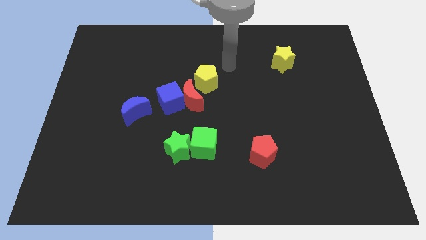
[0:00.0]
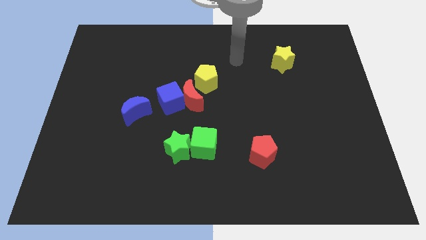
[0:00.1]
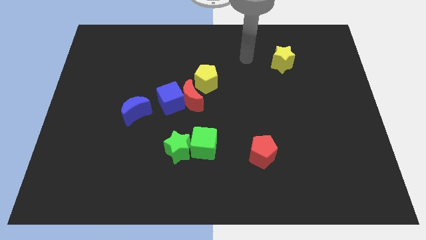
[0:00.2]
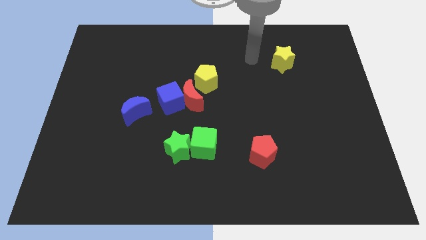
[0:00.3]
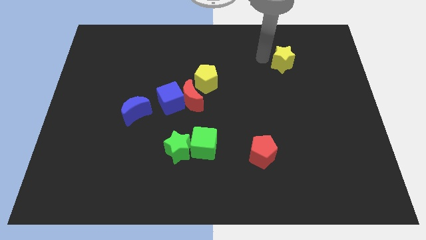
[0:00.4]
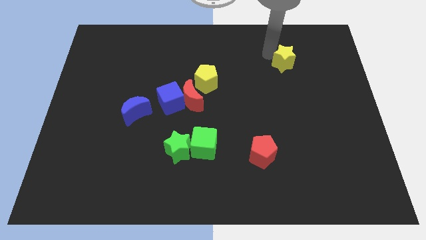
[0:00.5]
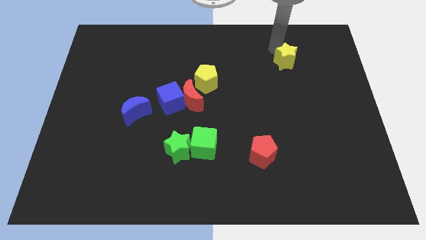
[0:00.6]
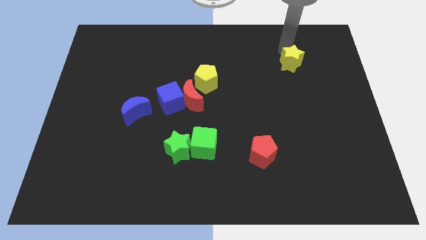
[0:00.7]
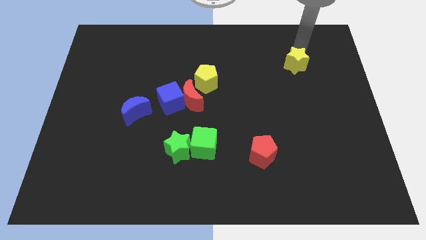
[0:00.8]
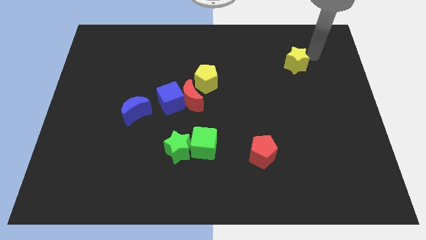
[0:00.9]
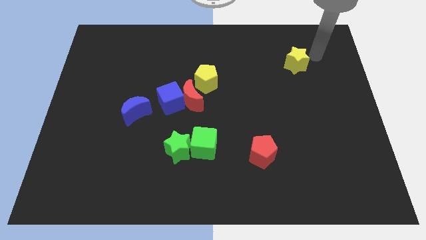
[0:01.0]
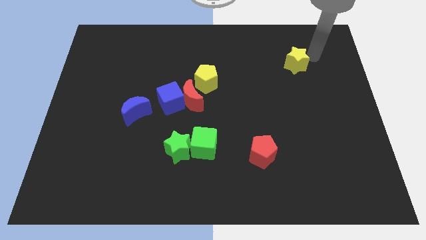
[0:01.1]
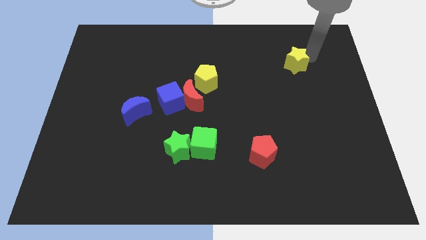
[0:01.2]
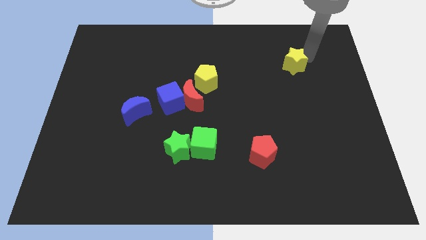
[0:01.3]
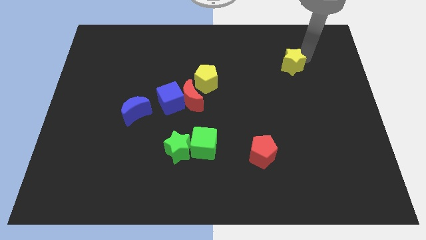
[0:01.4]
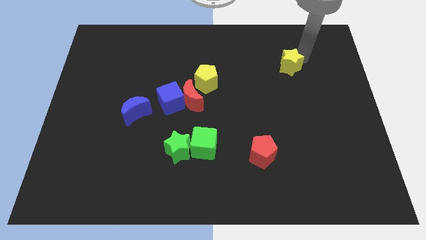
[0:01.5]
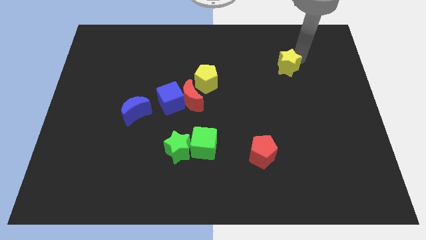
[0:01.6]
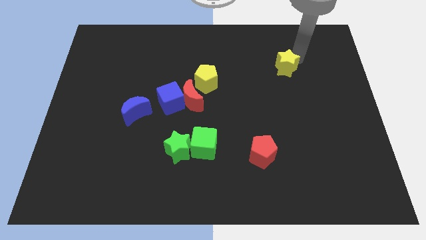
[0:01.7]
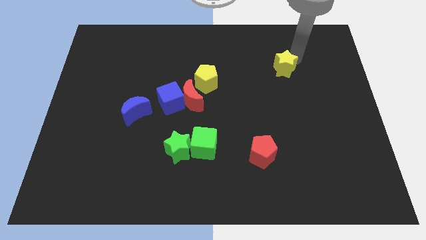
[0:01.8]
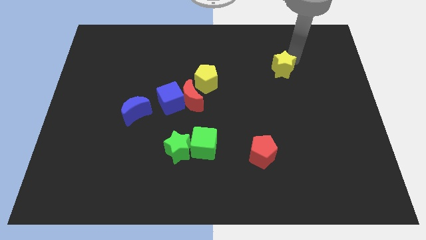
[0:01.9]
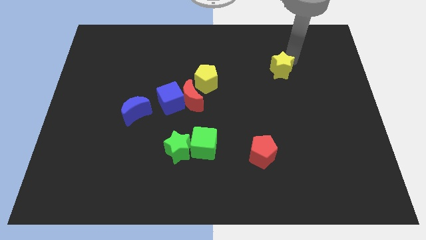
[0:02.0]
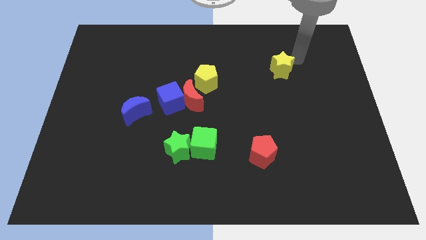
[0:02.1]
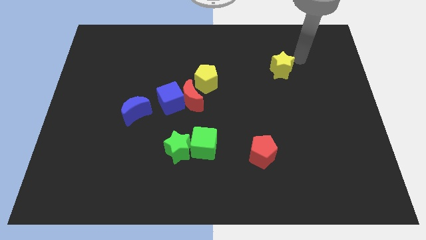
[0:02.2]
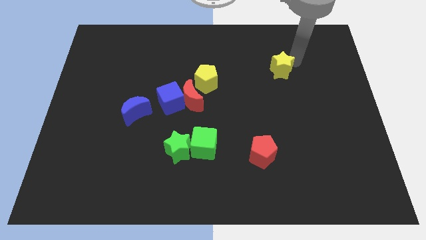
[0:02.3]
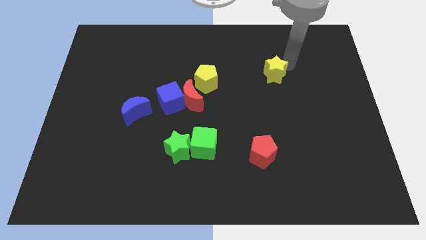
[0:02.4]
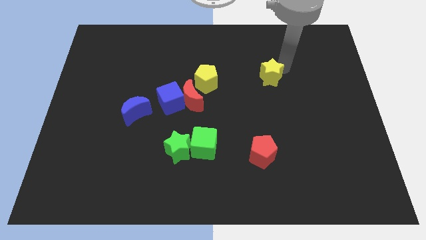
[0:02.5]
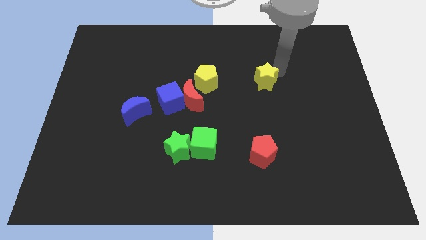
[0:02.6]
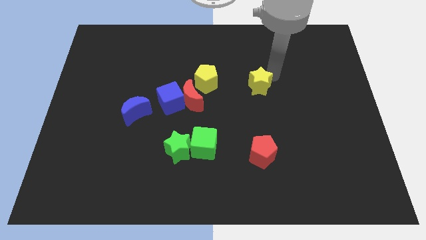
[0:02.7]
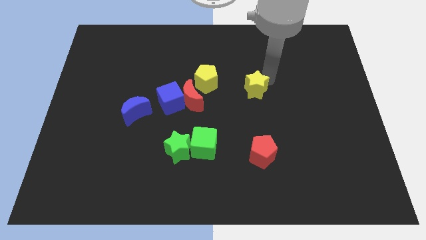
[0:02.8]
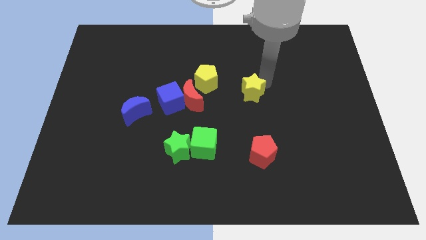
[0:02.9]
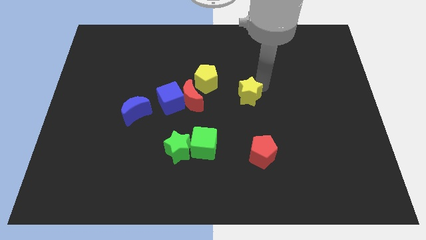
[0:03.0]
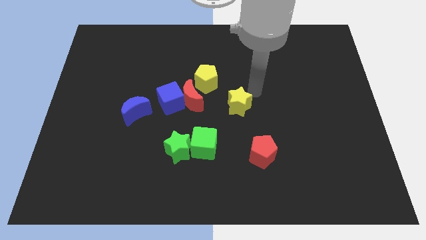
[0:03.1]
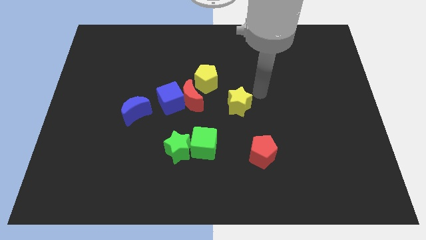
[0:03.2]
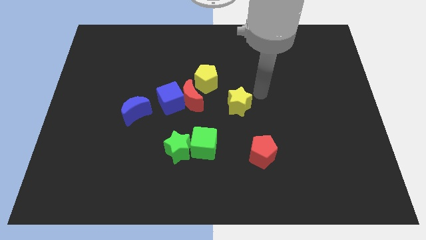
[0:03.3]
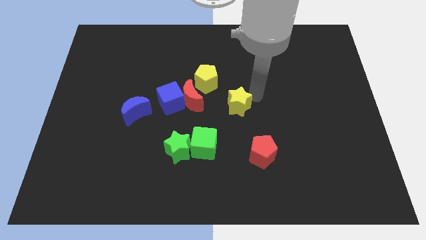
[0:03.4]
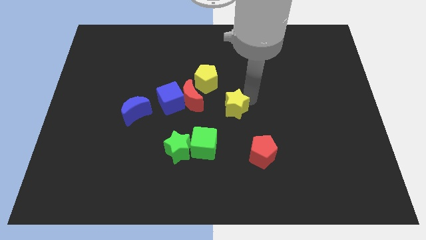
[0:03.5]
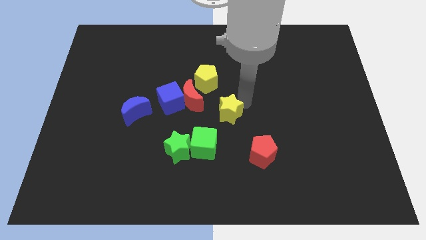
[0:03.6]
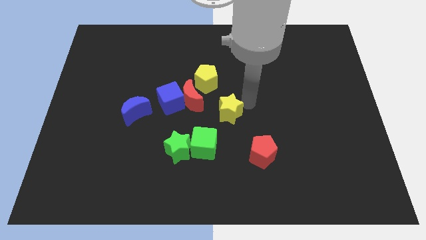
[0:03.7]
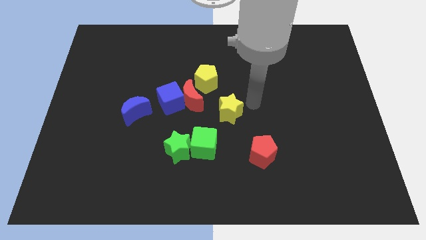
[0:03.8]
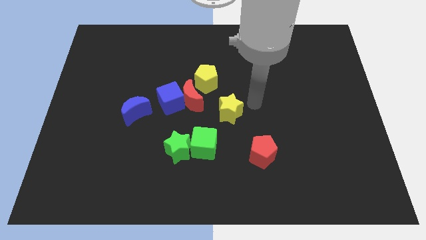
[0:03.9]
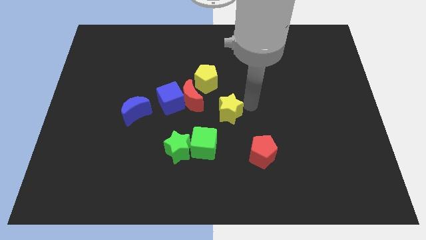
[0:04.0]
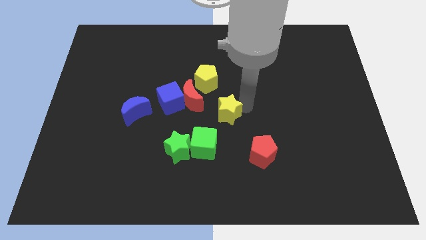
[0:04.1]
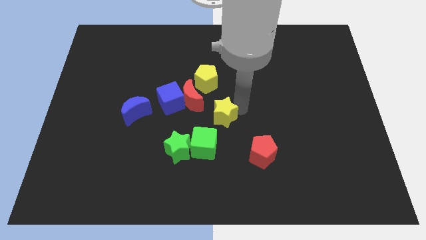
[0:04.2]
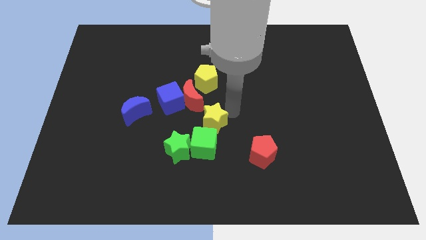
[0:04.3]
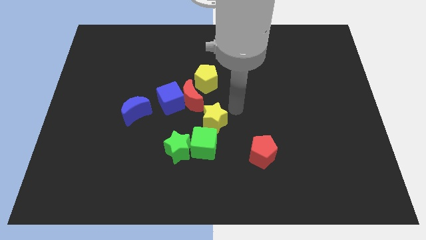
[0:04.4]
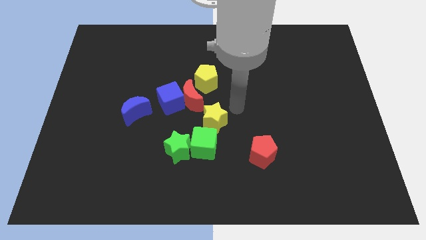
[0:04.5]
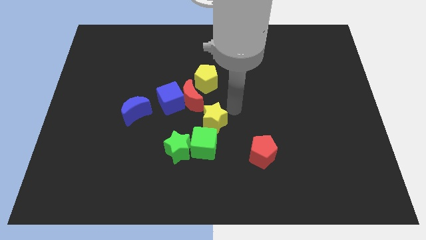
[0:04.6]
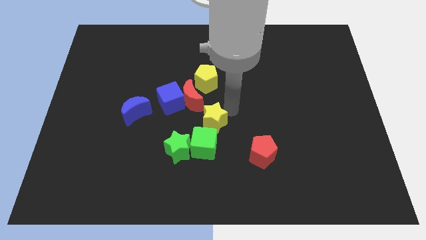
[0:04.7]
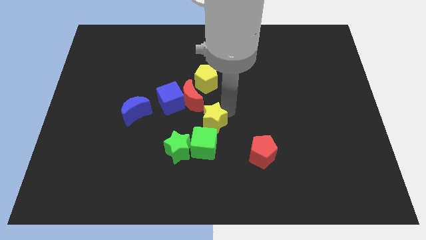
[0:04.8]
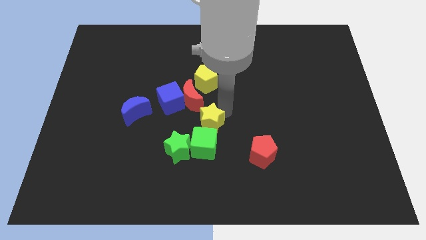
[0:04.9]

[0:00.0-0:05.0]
push the yellow star to the bottom side of the red moon

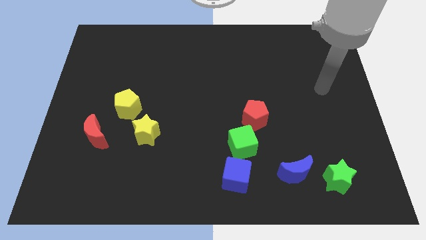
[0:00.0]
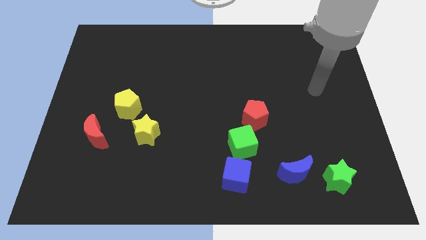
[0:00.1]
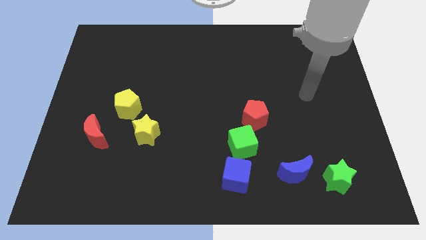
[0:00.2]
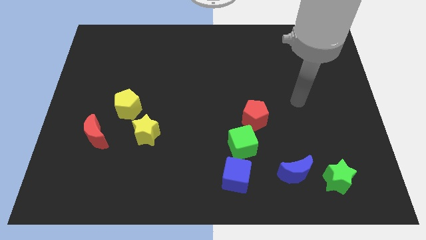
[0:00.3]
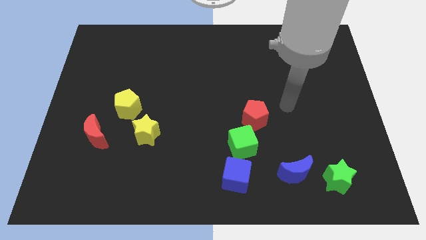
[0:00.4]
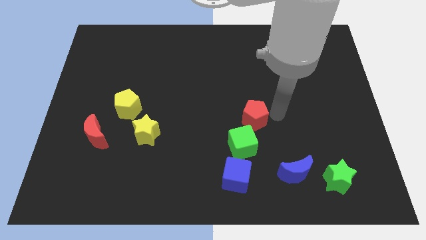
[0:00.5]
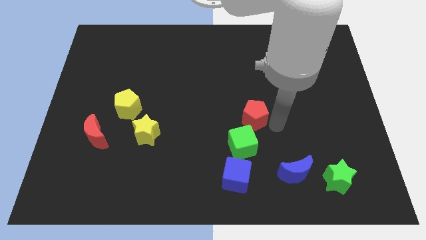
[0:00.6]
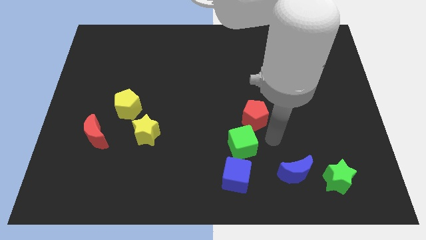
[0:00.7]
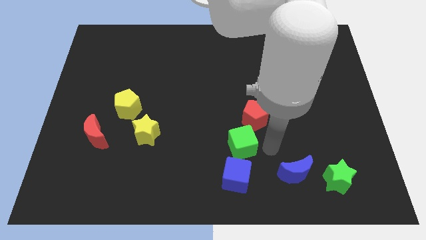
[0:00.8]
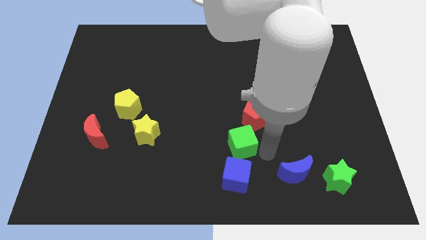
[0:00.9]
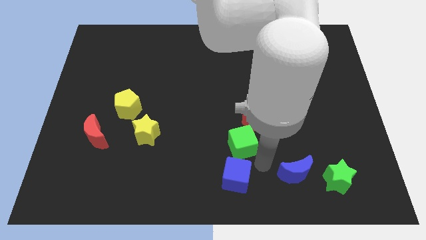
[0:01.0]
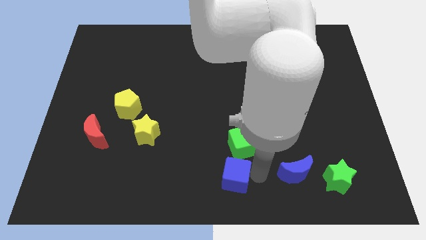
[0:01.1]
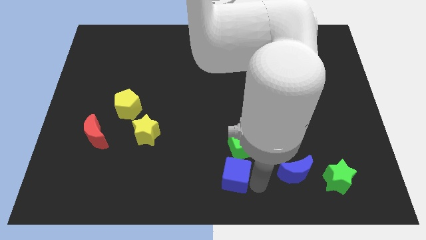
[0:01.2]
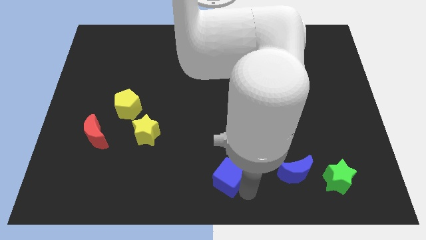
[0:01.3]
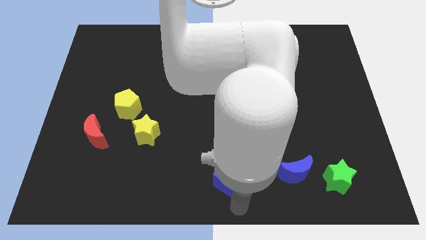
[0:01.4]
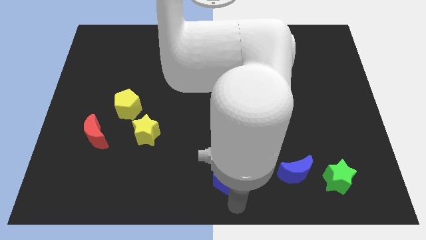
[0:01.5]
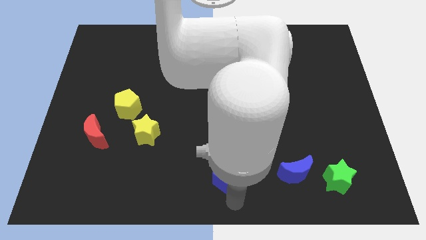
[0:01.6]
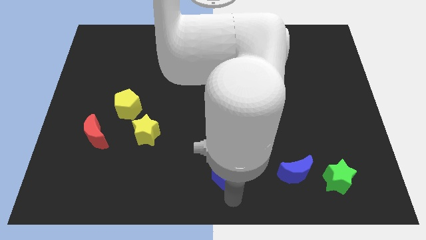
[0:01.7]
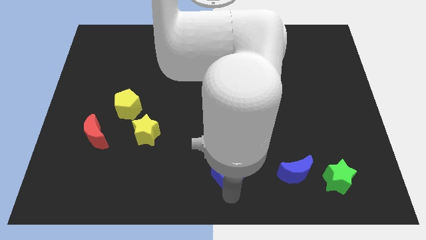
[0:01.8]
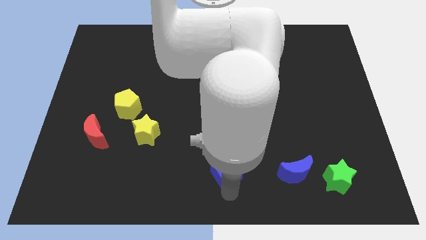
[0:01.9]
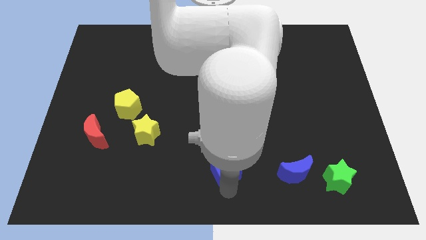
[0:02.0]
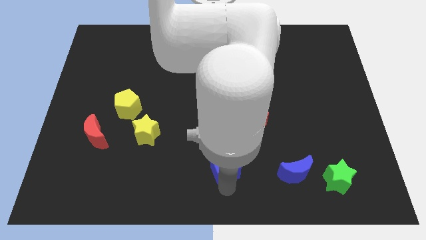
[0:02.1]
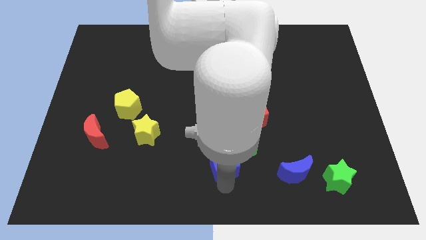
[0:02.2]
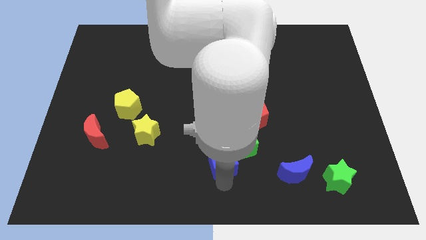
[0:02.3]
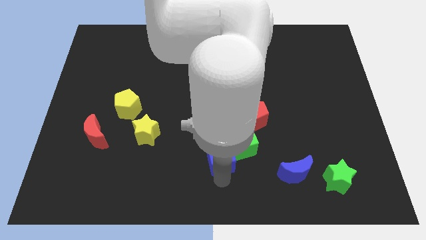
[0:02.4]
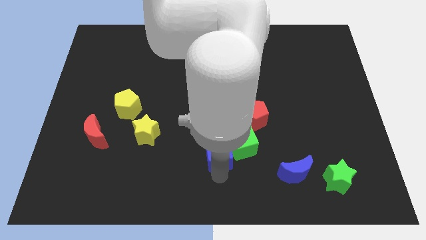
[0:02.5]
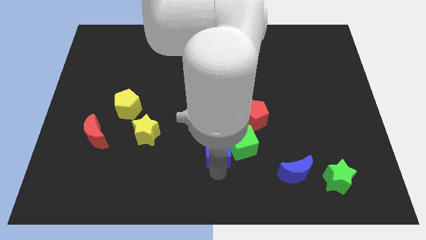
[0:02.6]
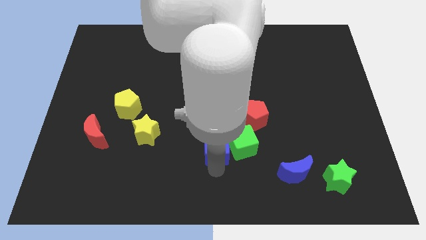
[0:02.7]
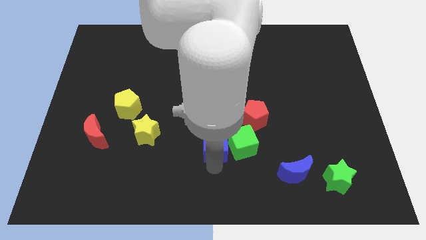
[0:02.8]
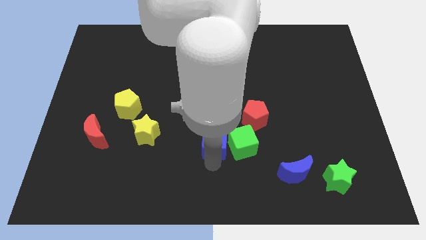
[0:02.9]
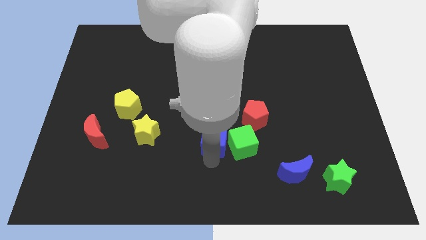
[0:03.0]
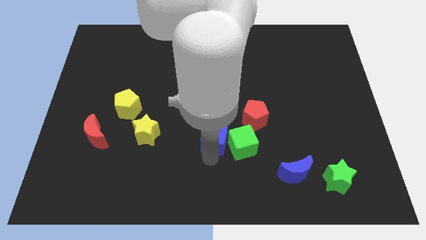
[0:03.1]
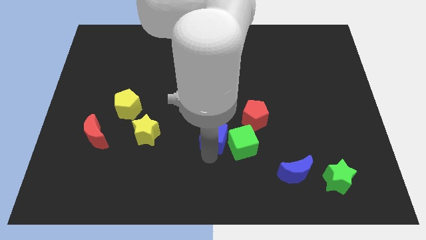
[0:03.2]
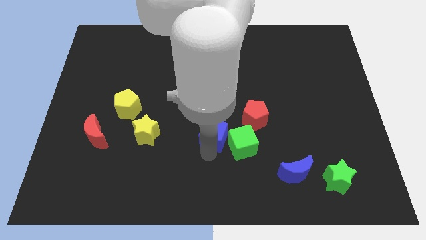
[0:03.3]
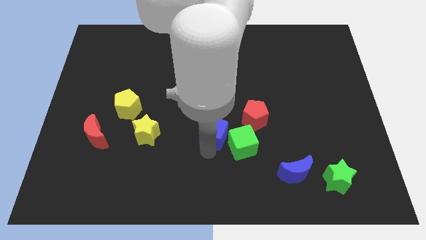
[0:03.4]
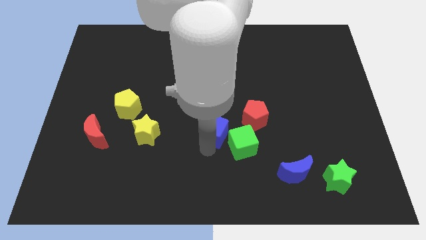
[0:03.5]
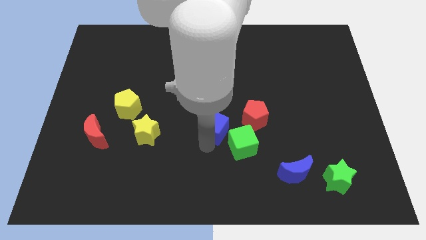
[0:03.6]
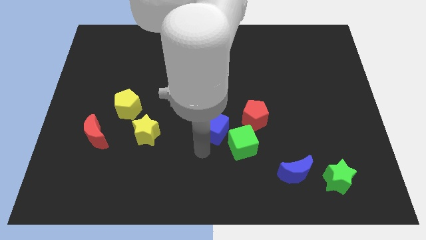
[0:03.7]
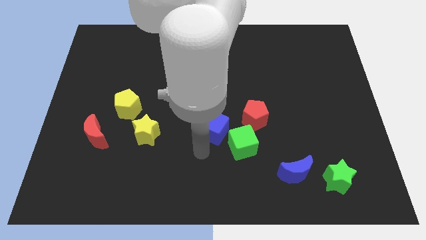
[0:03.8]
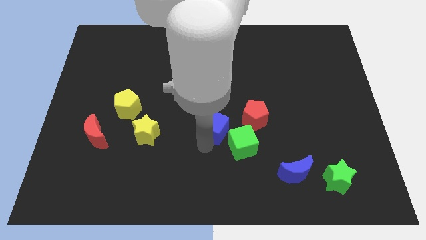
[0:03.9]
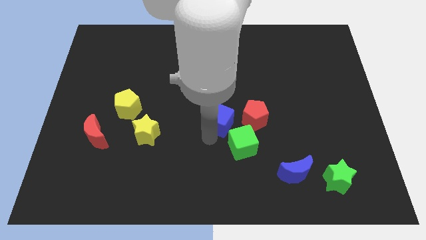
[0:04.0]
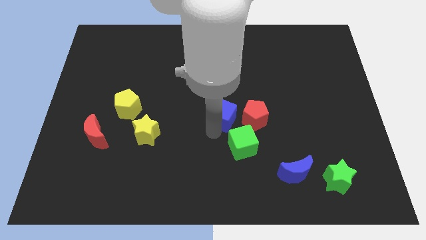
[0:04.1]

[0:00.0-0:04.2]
slide the blue cube diagonally up and to the left of the red pentagon
